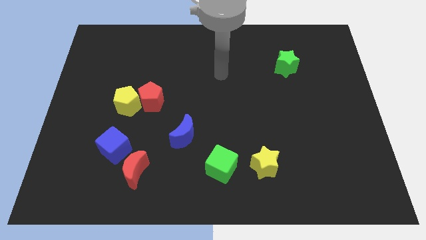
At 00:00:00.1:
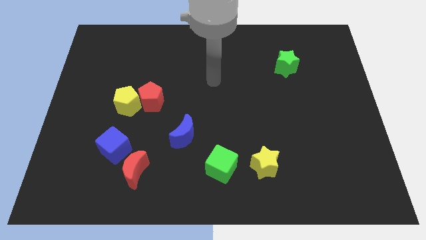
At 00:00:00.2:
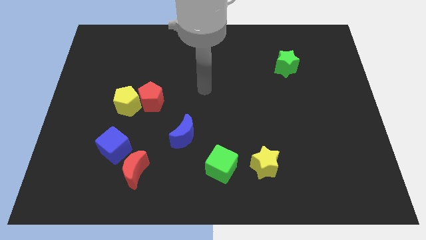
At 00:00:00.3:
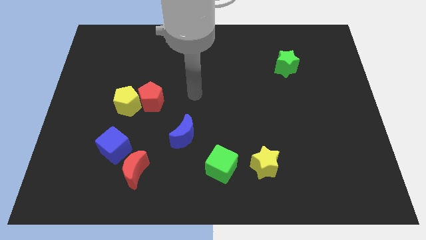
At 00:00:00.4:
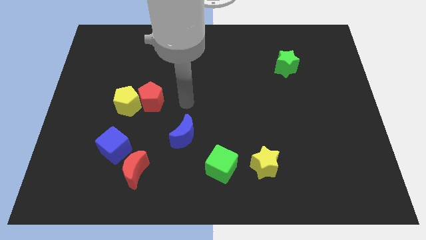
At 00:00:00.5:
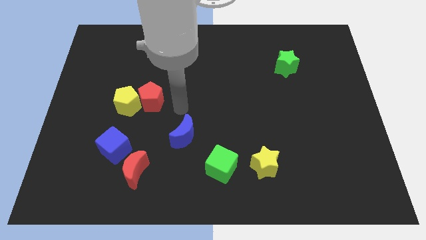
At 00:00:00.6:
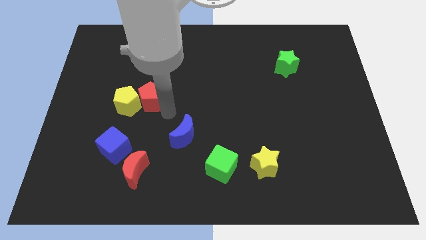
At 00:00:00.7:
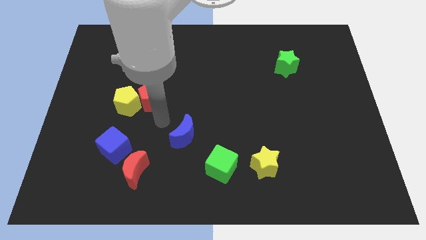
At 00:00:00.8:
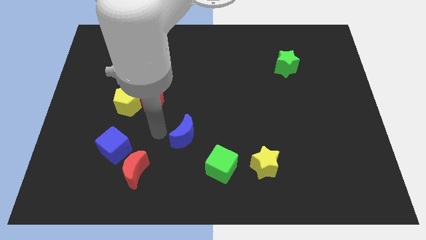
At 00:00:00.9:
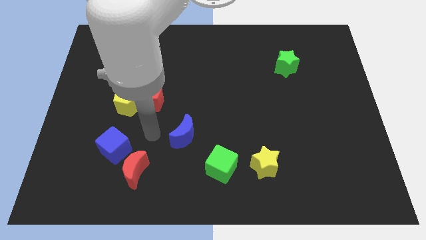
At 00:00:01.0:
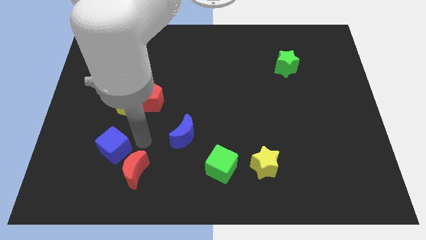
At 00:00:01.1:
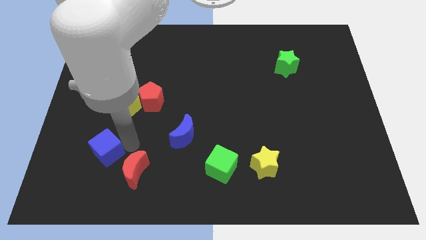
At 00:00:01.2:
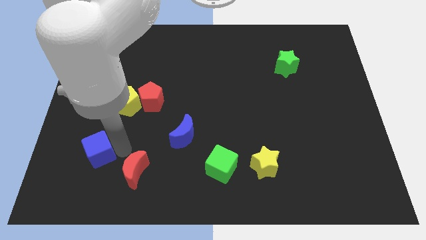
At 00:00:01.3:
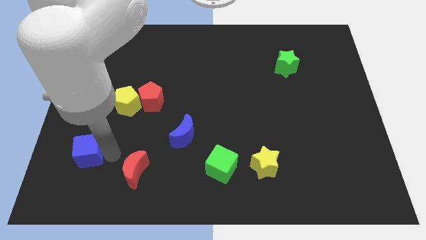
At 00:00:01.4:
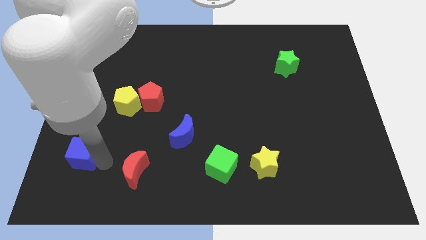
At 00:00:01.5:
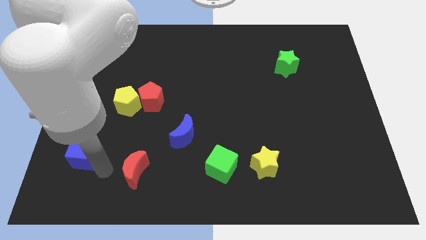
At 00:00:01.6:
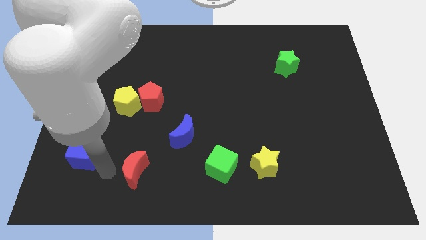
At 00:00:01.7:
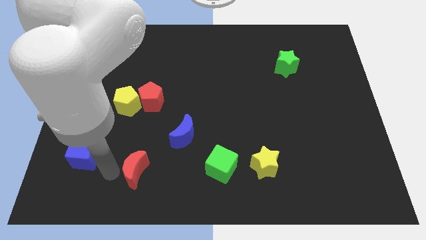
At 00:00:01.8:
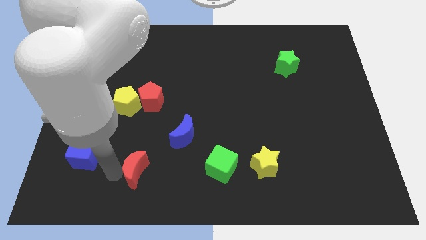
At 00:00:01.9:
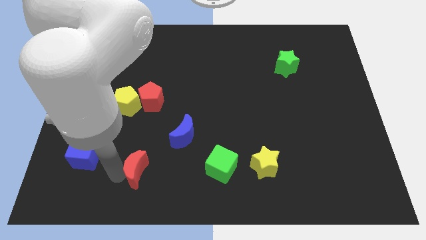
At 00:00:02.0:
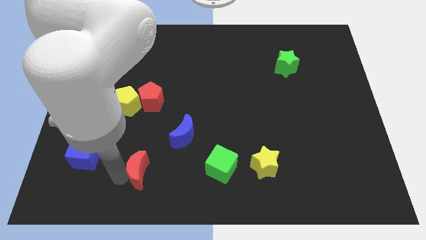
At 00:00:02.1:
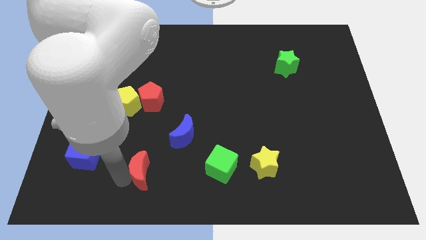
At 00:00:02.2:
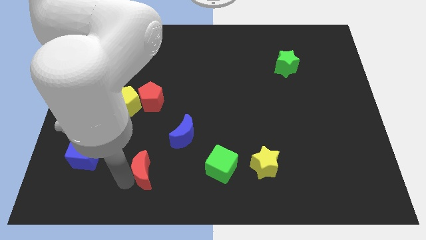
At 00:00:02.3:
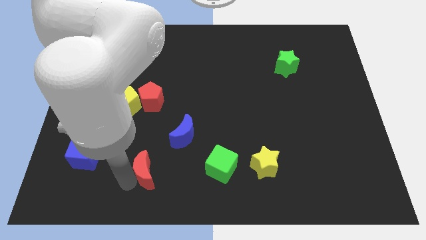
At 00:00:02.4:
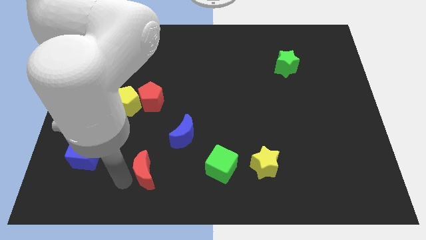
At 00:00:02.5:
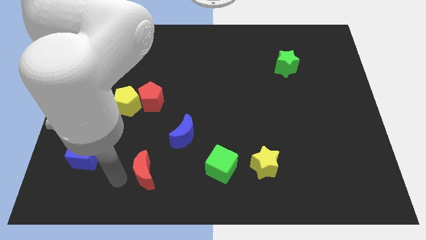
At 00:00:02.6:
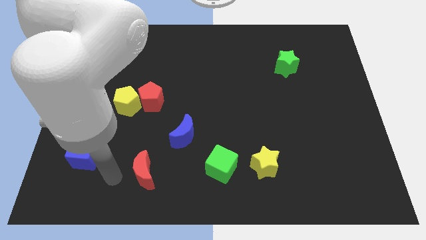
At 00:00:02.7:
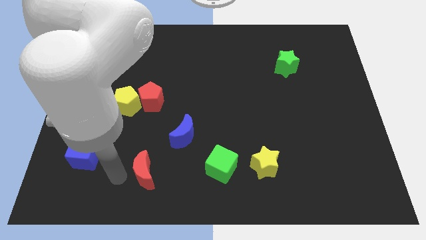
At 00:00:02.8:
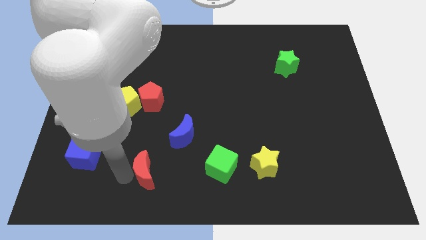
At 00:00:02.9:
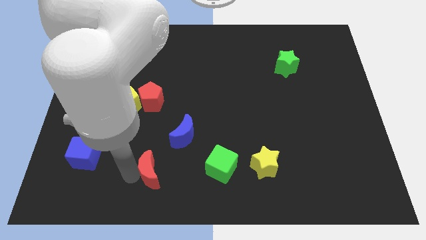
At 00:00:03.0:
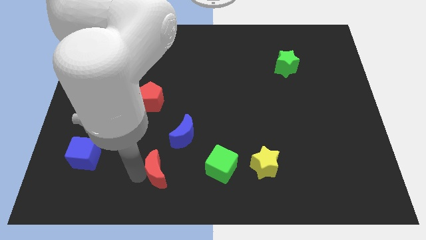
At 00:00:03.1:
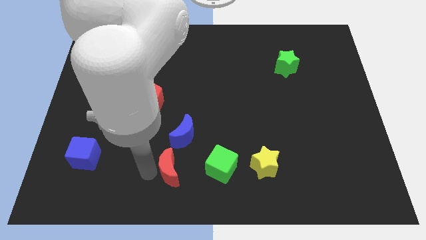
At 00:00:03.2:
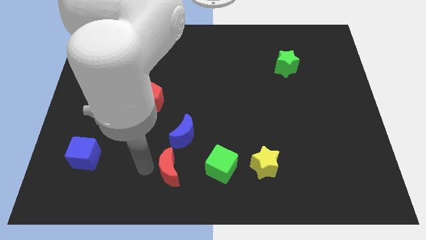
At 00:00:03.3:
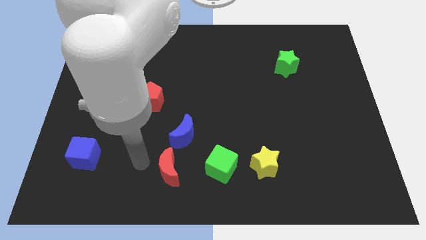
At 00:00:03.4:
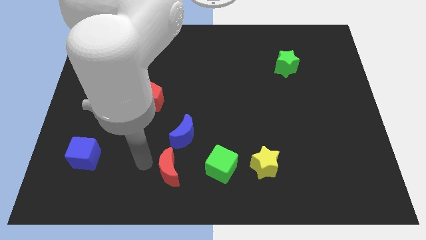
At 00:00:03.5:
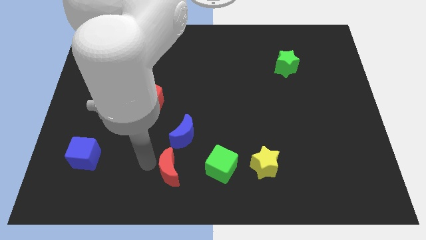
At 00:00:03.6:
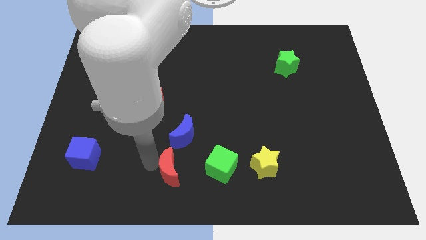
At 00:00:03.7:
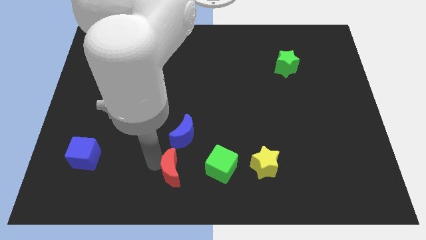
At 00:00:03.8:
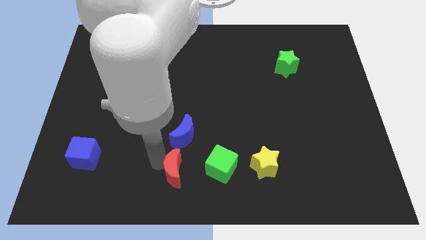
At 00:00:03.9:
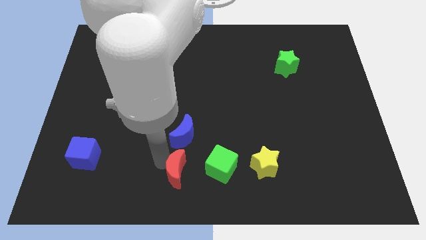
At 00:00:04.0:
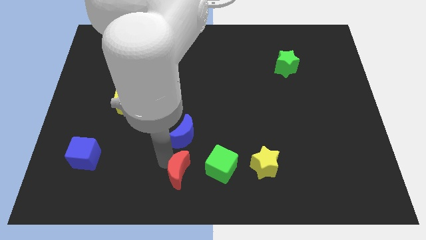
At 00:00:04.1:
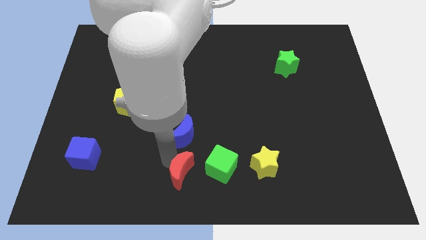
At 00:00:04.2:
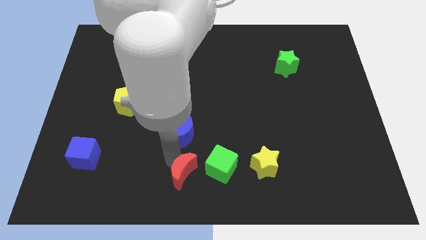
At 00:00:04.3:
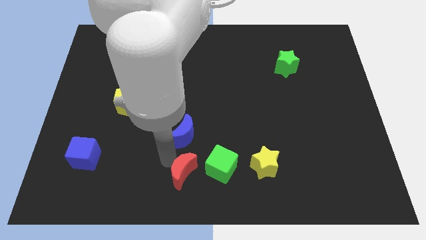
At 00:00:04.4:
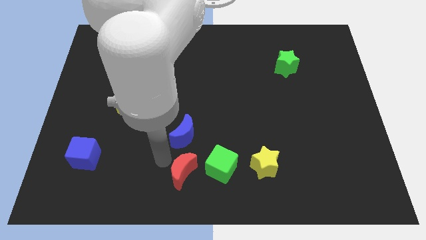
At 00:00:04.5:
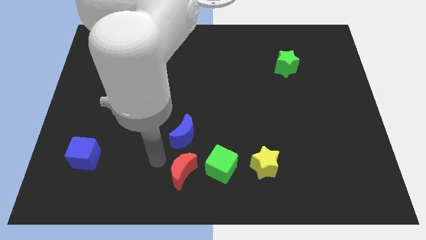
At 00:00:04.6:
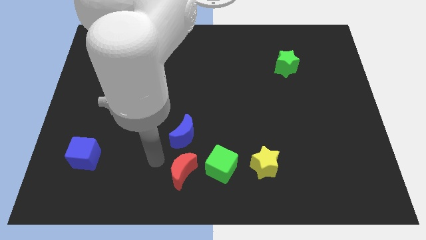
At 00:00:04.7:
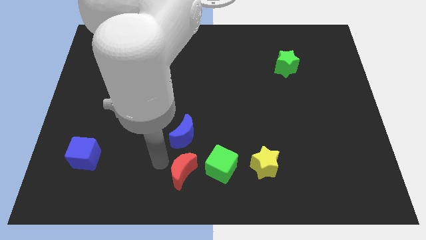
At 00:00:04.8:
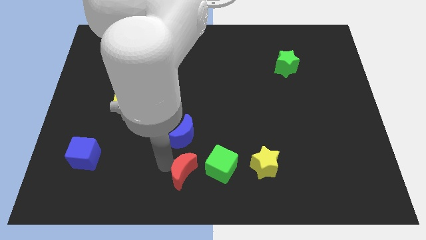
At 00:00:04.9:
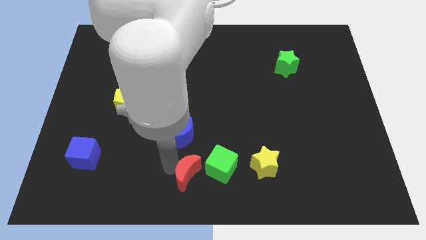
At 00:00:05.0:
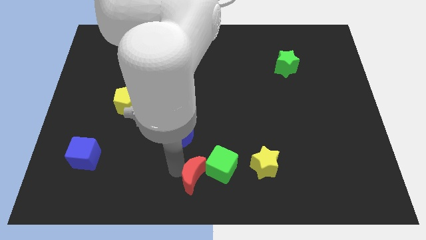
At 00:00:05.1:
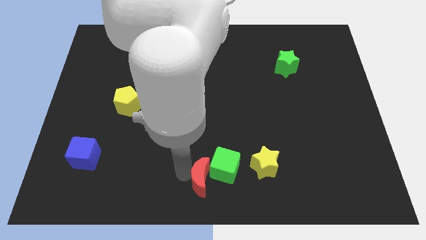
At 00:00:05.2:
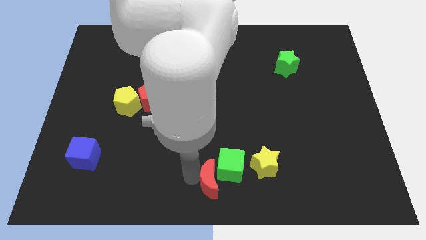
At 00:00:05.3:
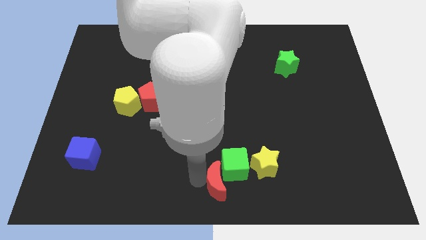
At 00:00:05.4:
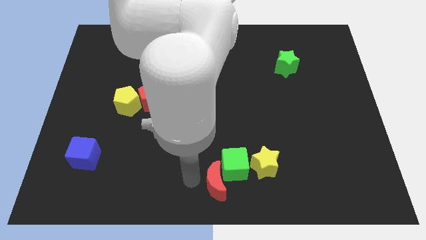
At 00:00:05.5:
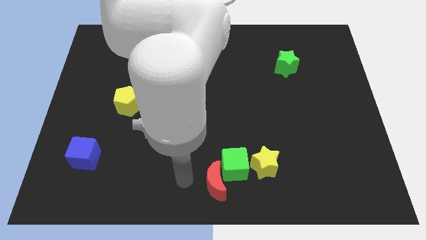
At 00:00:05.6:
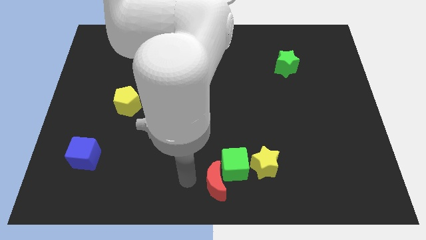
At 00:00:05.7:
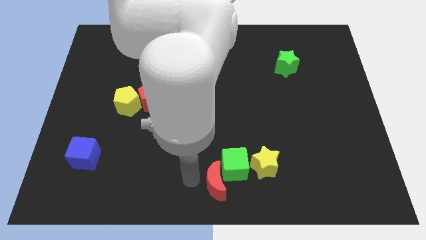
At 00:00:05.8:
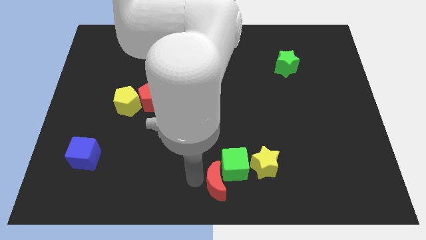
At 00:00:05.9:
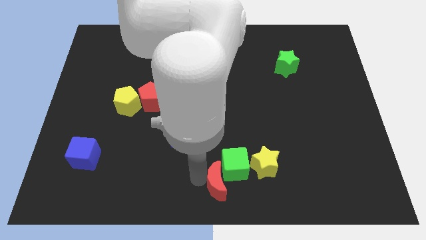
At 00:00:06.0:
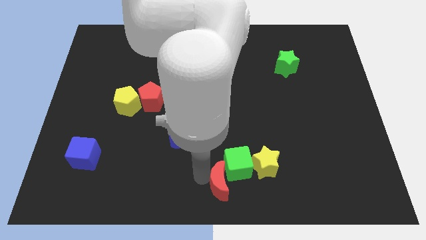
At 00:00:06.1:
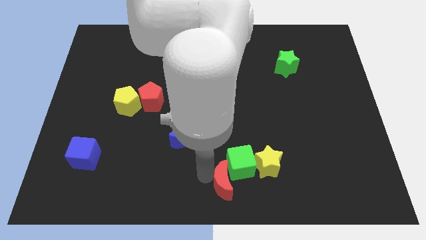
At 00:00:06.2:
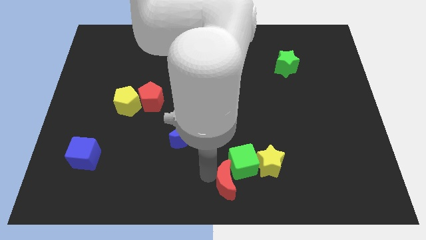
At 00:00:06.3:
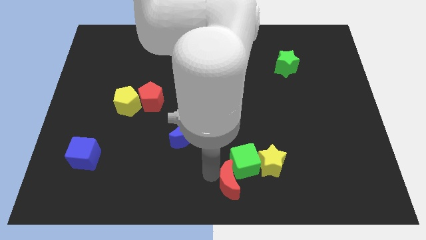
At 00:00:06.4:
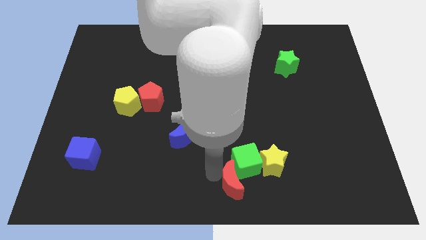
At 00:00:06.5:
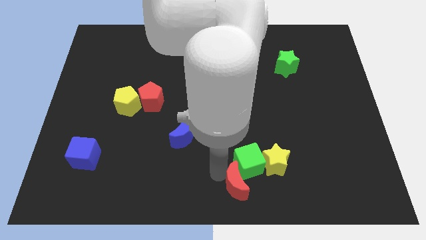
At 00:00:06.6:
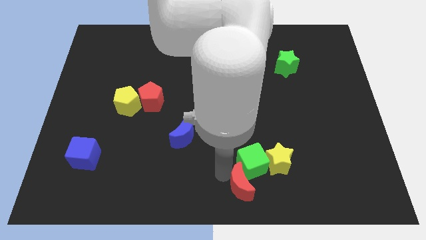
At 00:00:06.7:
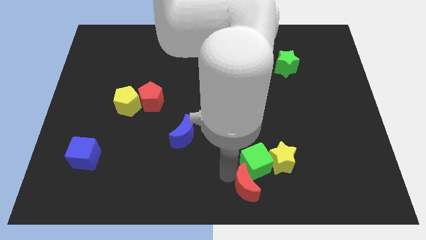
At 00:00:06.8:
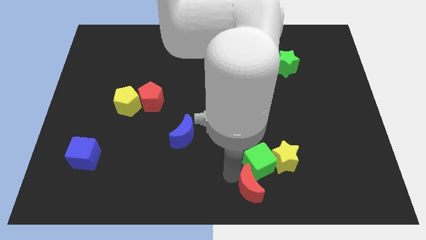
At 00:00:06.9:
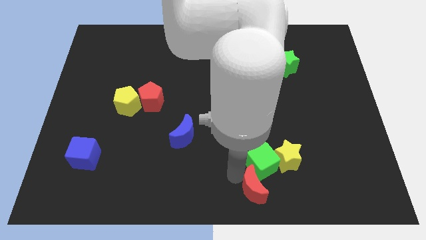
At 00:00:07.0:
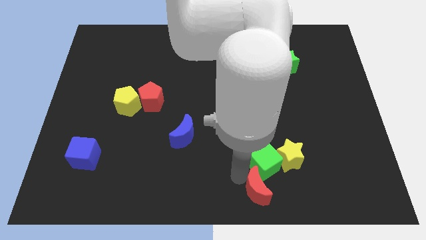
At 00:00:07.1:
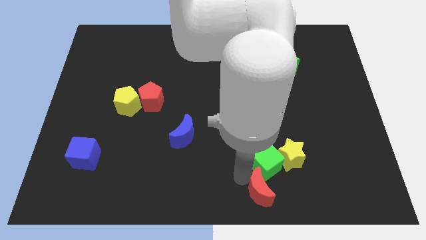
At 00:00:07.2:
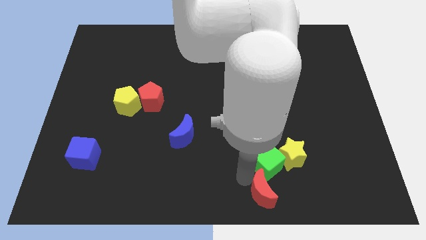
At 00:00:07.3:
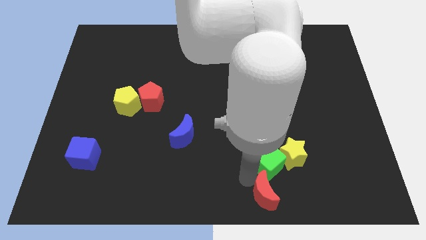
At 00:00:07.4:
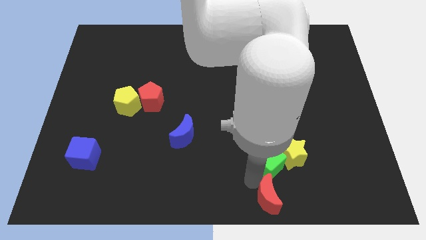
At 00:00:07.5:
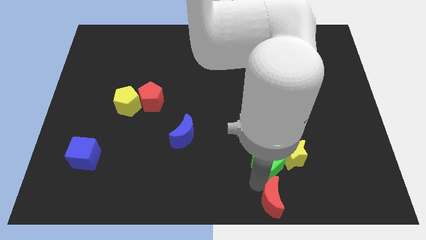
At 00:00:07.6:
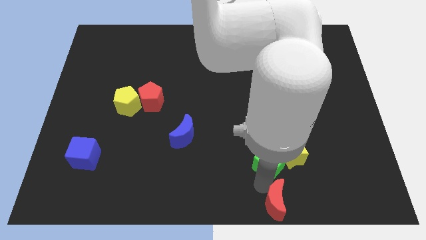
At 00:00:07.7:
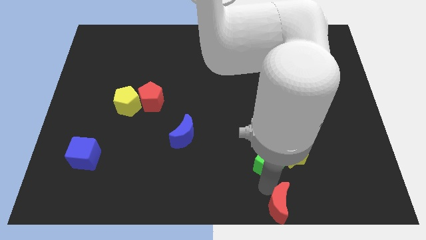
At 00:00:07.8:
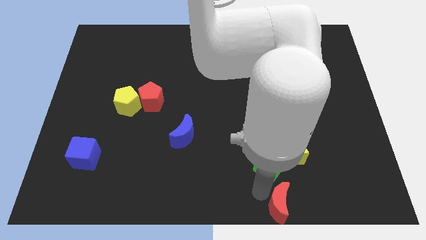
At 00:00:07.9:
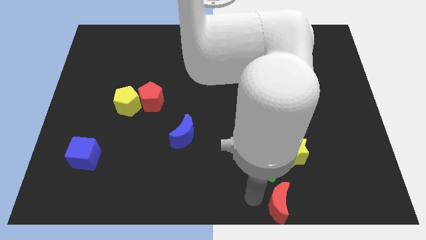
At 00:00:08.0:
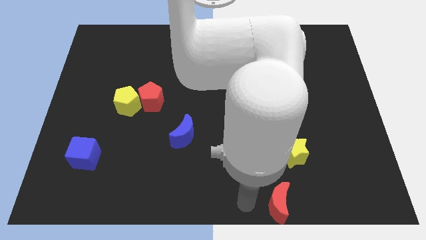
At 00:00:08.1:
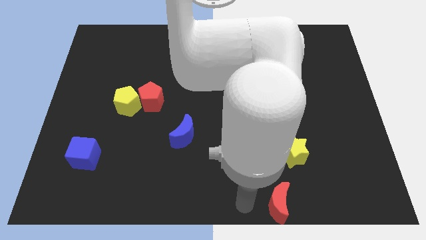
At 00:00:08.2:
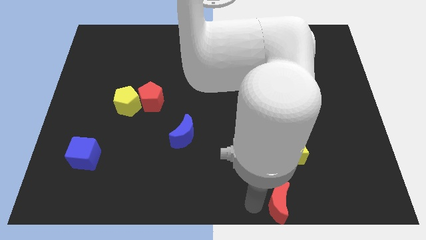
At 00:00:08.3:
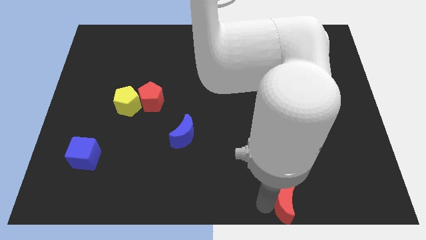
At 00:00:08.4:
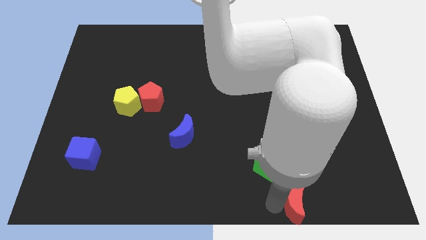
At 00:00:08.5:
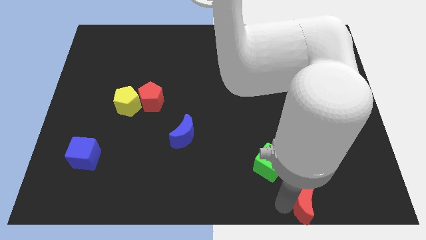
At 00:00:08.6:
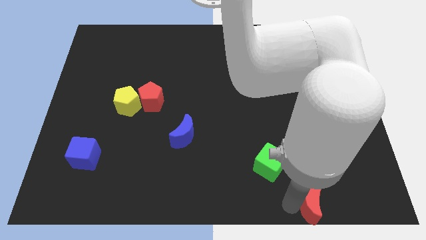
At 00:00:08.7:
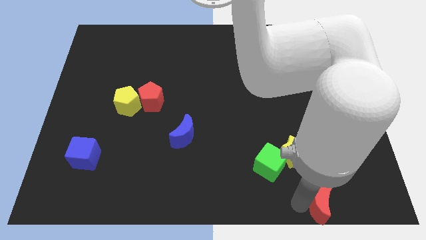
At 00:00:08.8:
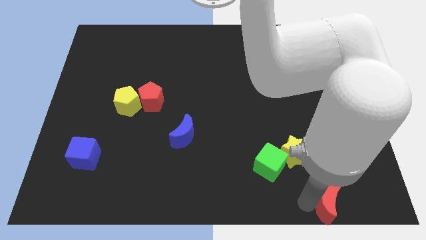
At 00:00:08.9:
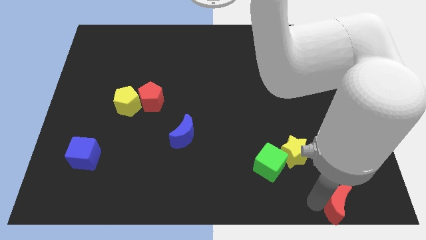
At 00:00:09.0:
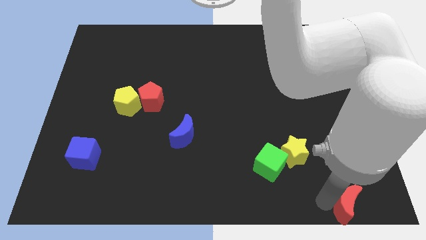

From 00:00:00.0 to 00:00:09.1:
slide the red moon to the bottom right of the board
